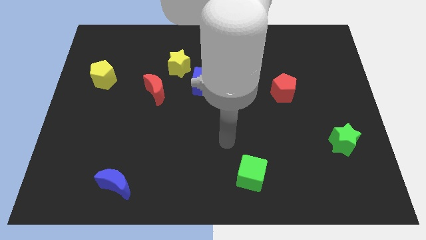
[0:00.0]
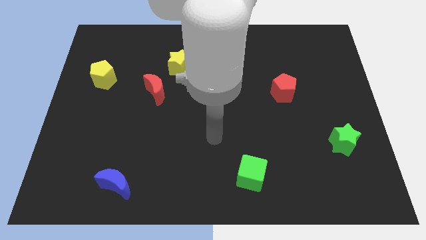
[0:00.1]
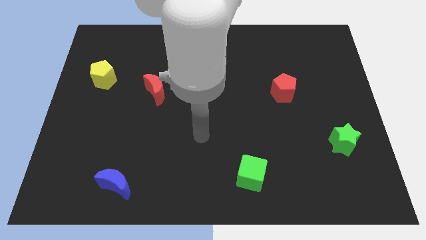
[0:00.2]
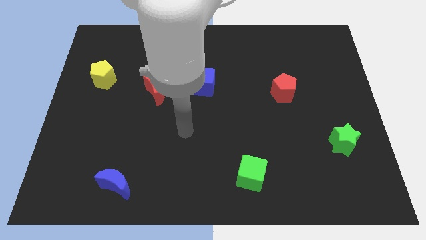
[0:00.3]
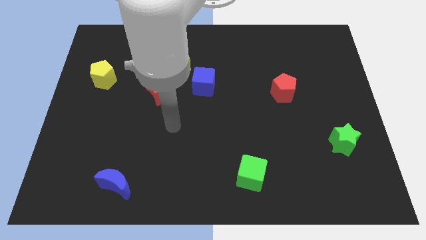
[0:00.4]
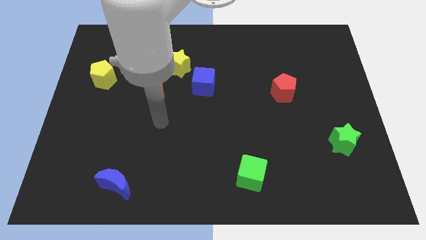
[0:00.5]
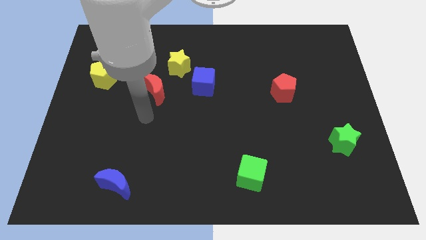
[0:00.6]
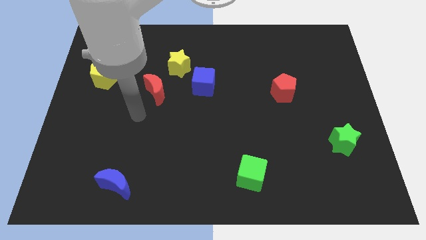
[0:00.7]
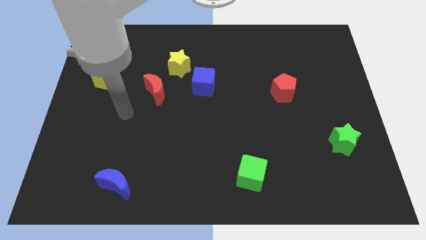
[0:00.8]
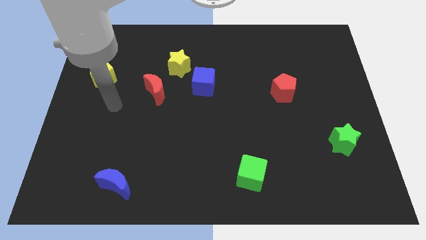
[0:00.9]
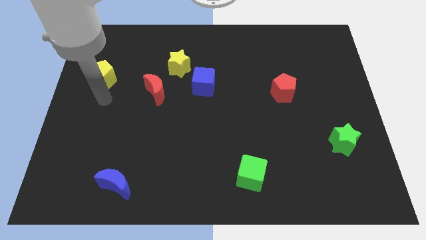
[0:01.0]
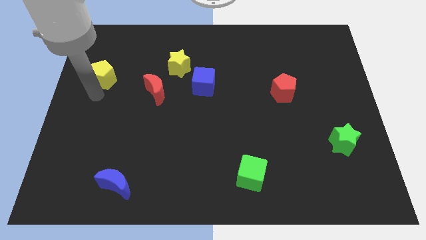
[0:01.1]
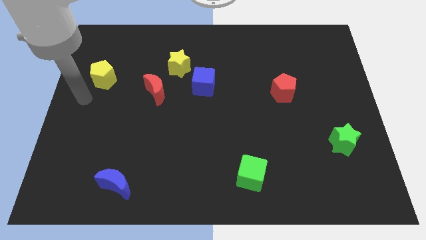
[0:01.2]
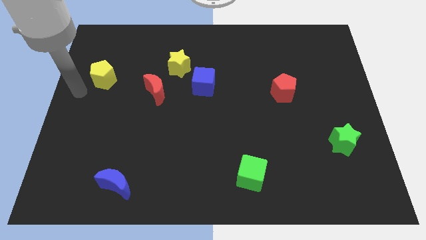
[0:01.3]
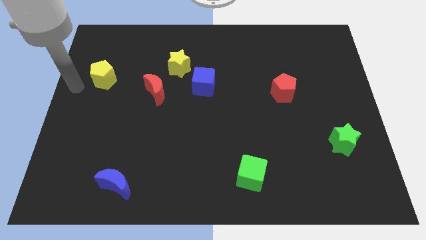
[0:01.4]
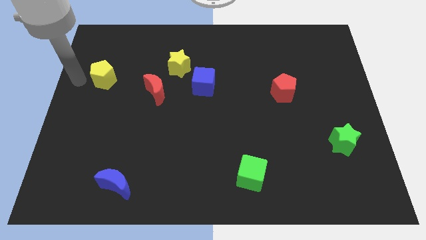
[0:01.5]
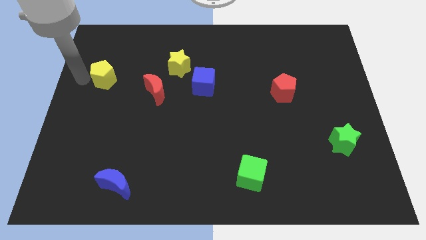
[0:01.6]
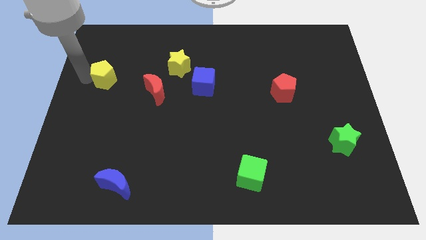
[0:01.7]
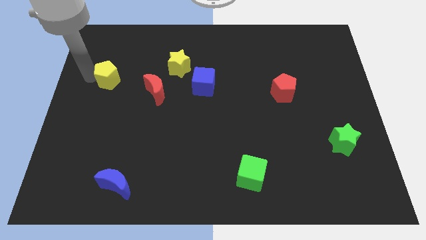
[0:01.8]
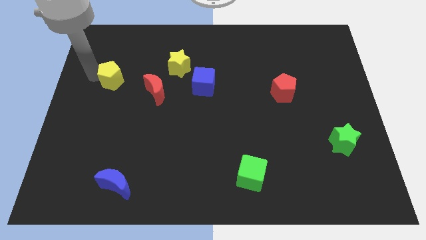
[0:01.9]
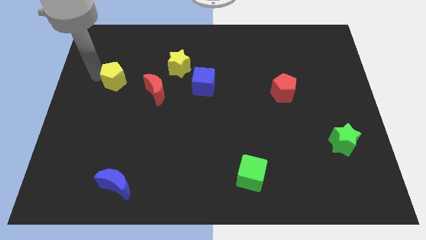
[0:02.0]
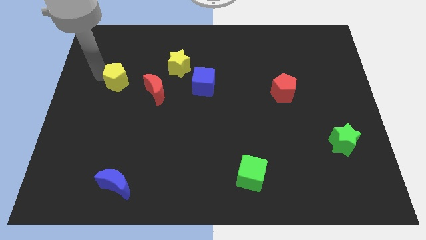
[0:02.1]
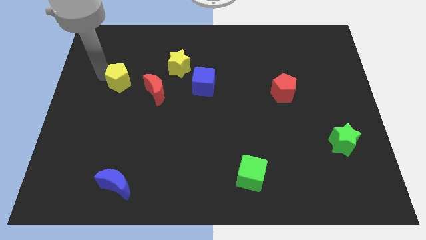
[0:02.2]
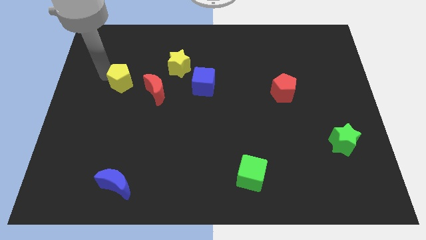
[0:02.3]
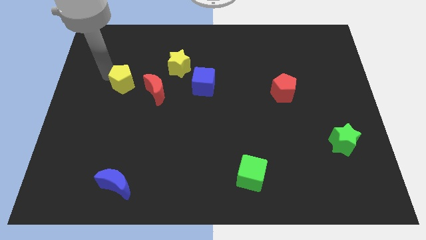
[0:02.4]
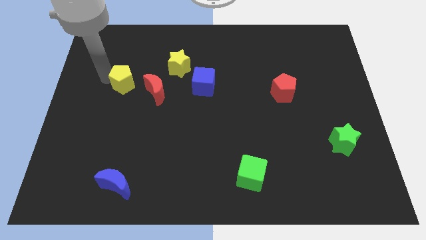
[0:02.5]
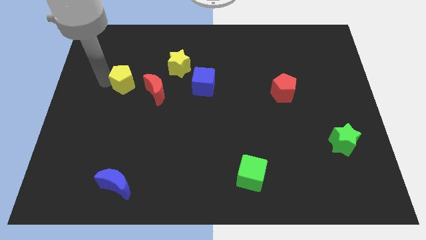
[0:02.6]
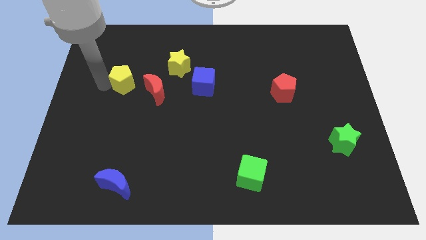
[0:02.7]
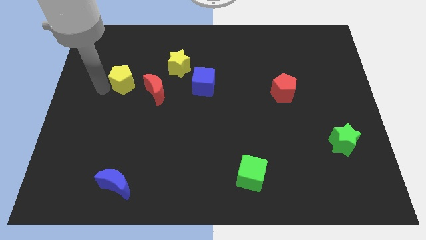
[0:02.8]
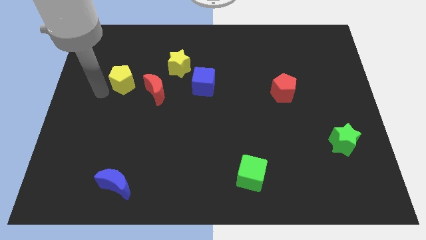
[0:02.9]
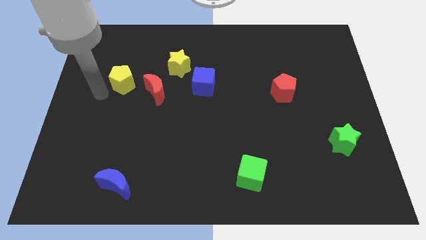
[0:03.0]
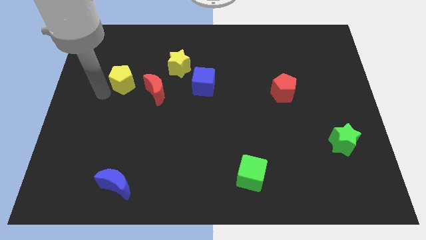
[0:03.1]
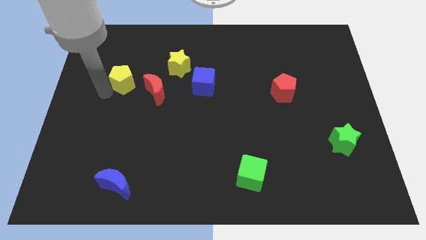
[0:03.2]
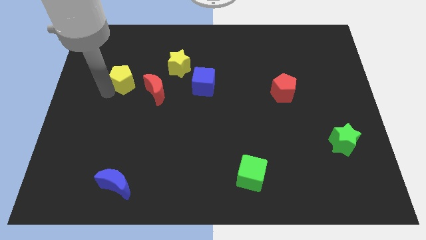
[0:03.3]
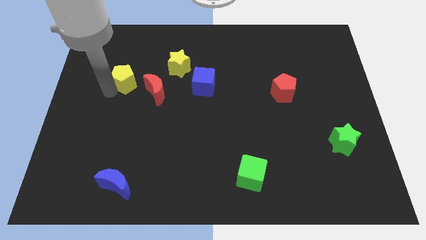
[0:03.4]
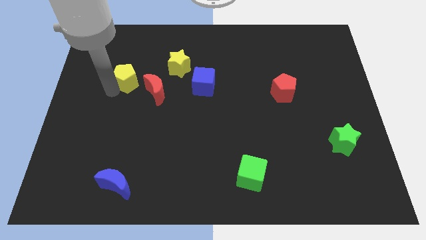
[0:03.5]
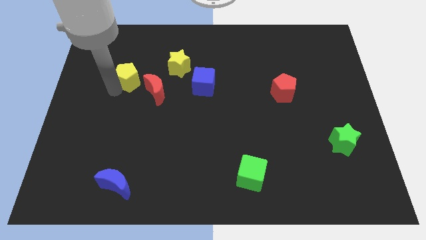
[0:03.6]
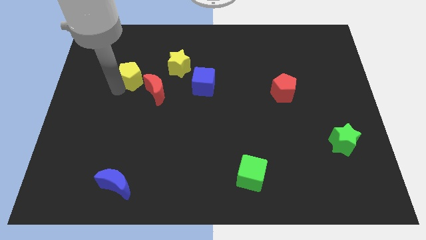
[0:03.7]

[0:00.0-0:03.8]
slightly move the yellow pentagon right

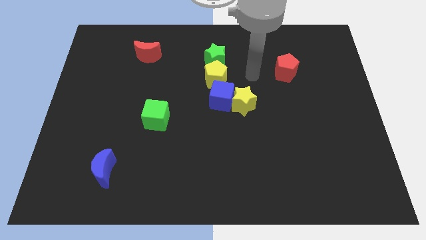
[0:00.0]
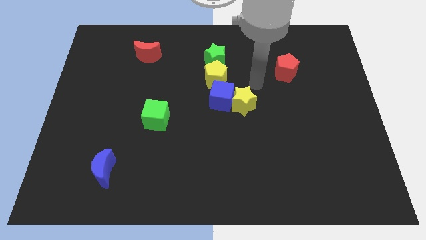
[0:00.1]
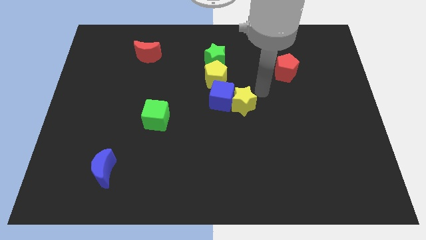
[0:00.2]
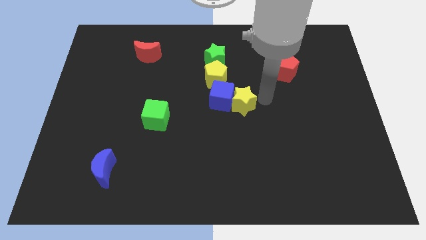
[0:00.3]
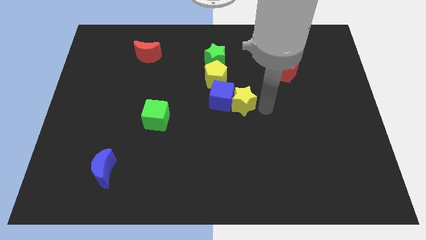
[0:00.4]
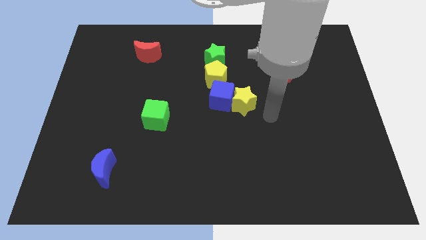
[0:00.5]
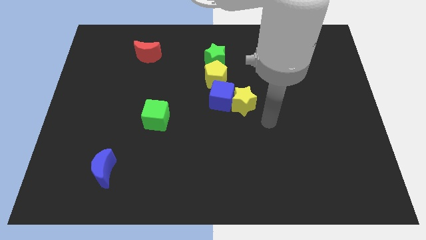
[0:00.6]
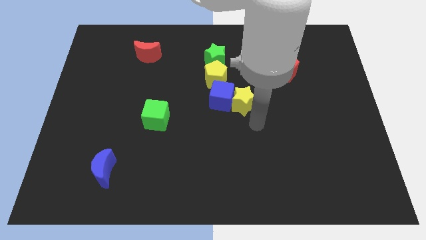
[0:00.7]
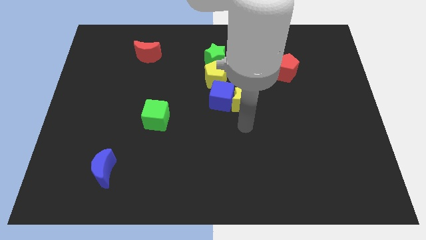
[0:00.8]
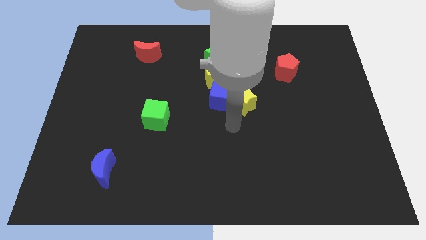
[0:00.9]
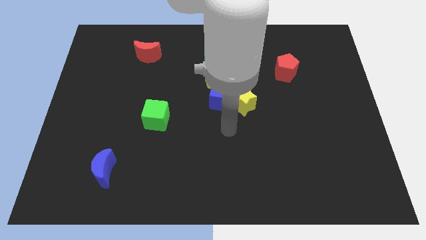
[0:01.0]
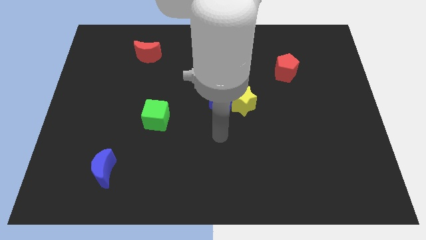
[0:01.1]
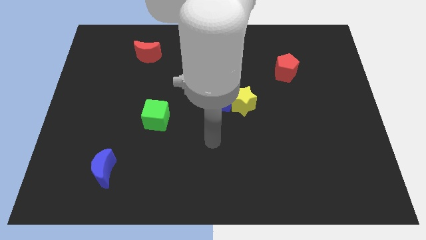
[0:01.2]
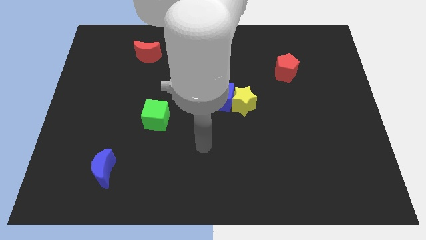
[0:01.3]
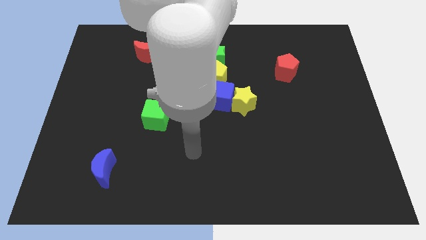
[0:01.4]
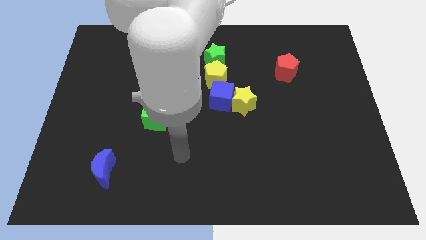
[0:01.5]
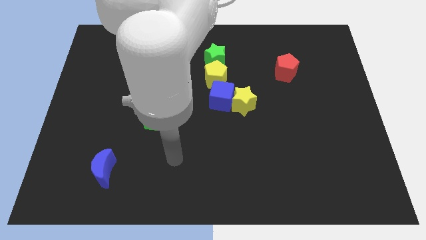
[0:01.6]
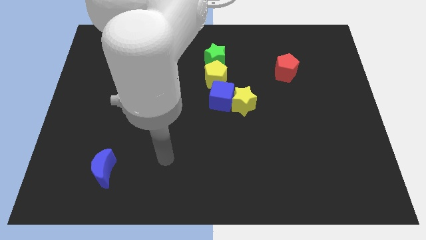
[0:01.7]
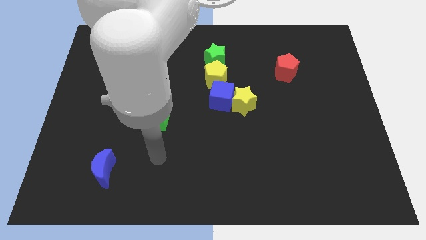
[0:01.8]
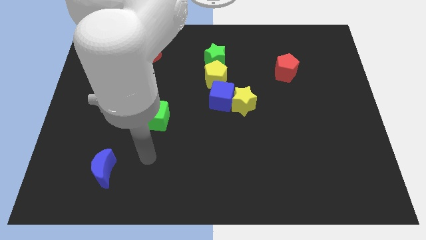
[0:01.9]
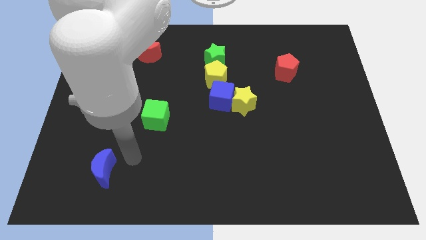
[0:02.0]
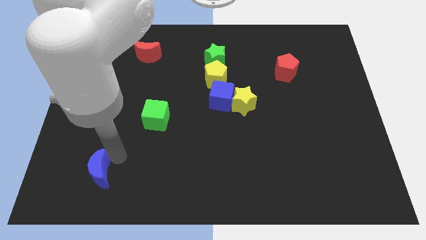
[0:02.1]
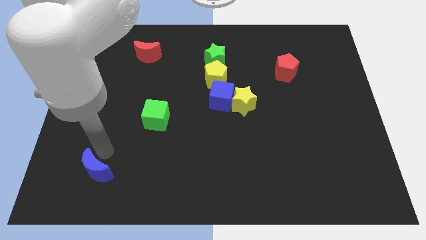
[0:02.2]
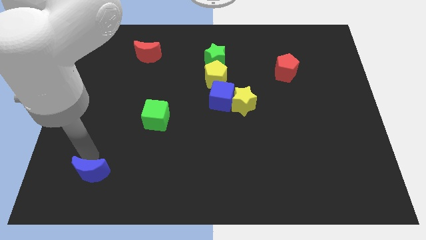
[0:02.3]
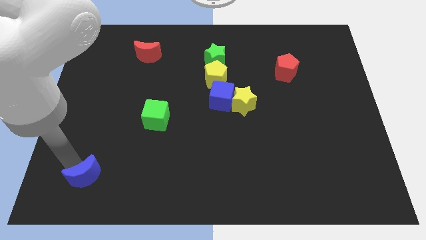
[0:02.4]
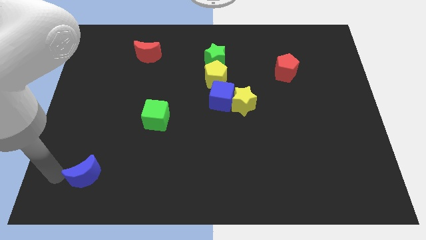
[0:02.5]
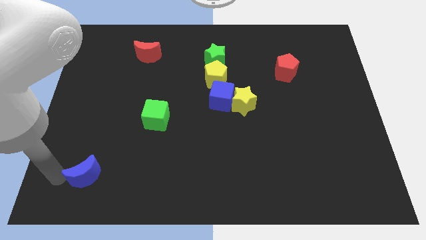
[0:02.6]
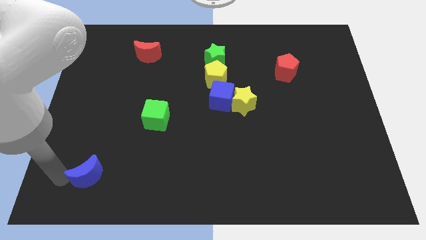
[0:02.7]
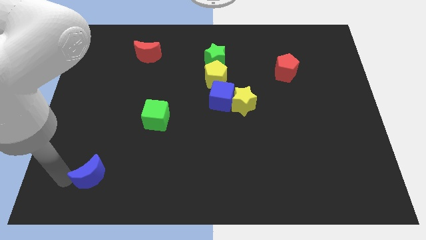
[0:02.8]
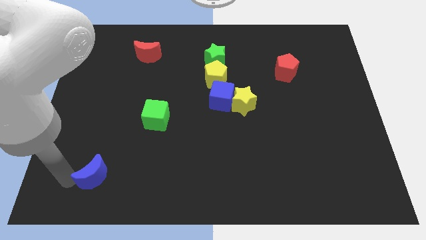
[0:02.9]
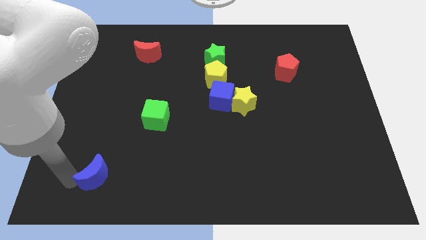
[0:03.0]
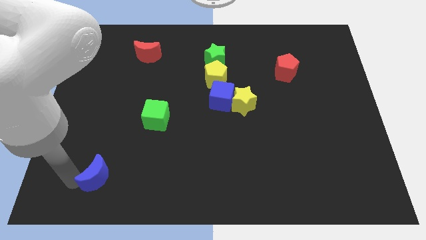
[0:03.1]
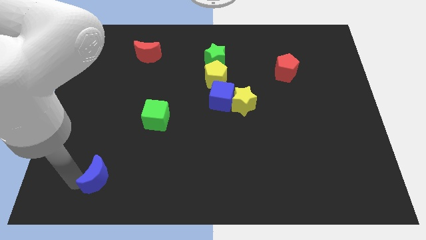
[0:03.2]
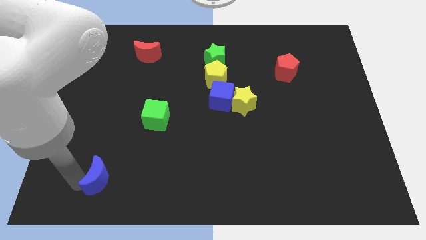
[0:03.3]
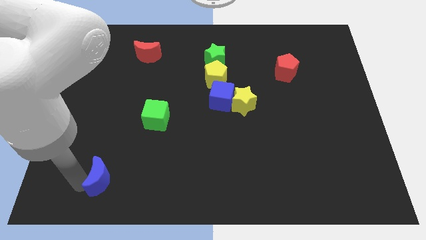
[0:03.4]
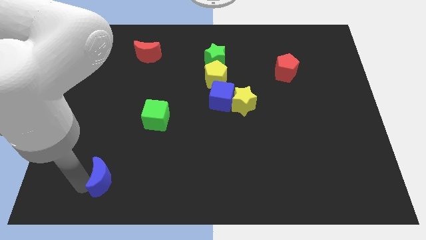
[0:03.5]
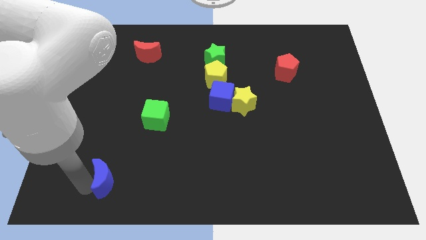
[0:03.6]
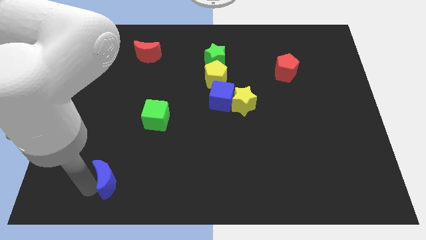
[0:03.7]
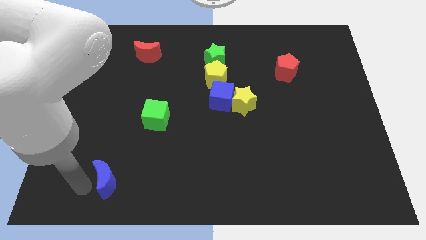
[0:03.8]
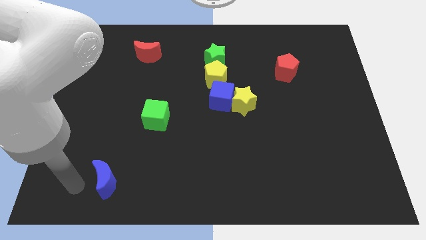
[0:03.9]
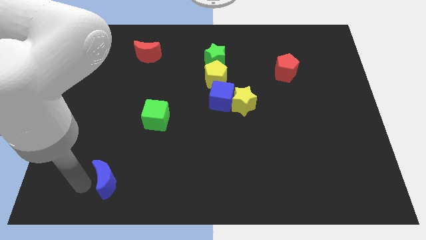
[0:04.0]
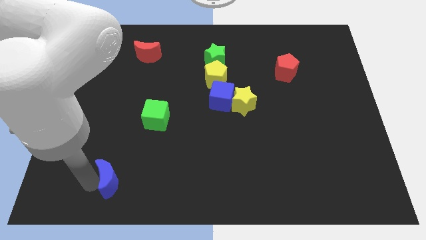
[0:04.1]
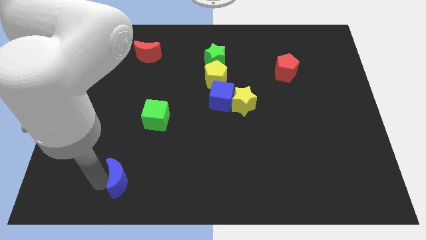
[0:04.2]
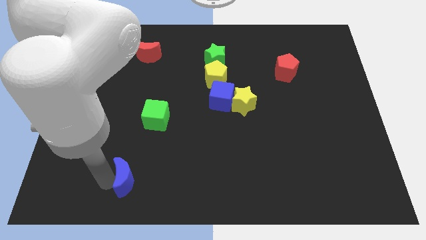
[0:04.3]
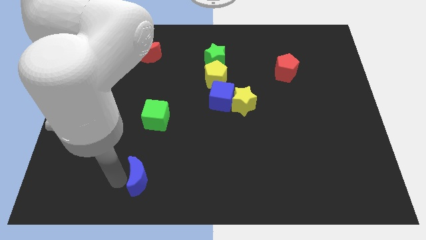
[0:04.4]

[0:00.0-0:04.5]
slide the blue moon right a little bit
